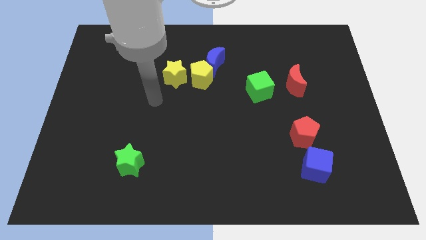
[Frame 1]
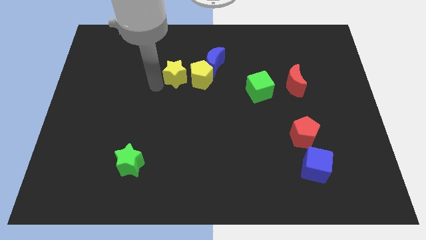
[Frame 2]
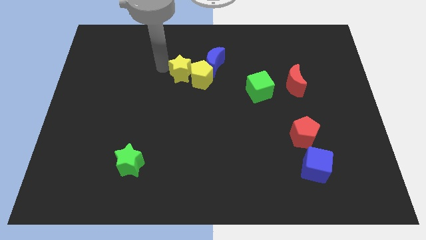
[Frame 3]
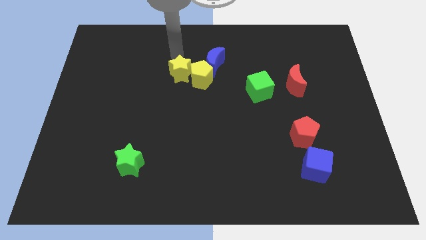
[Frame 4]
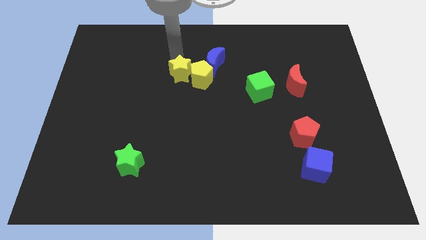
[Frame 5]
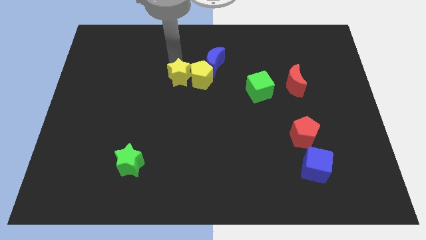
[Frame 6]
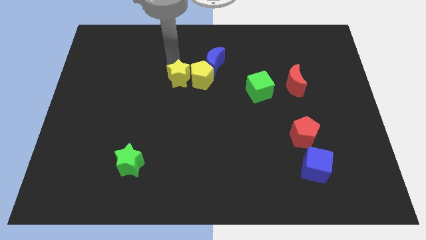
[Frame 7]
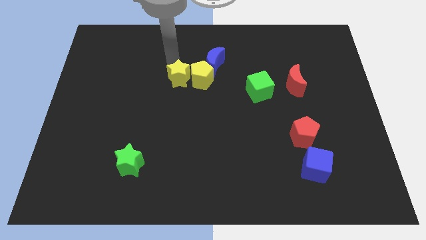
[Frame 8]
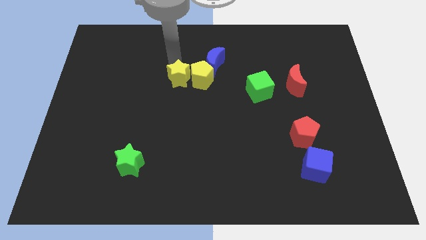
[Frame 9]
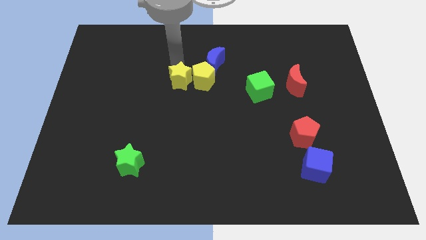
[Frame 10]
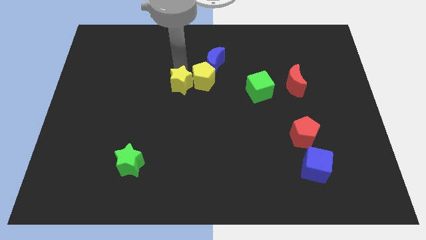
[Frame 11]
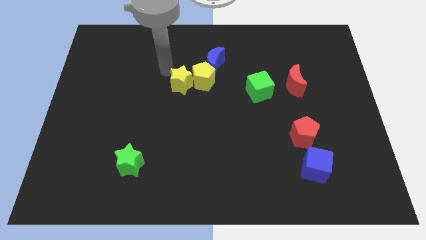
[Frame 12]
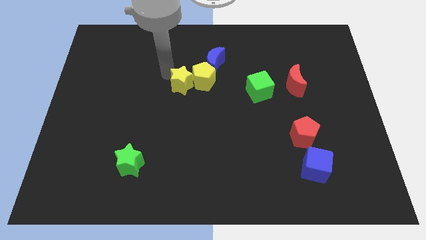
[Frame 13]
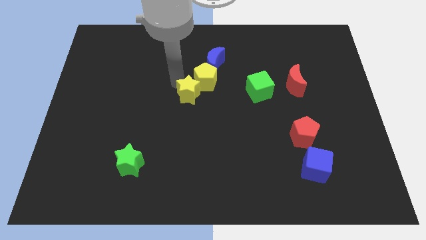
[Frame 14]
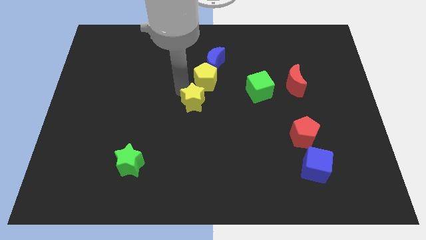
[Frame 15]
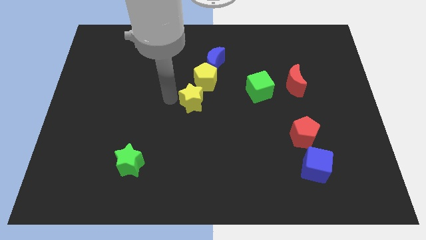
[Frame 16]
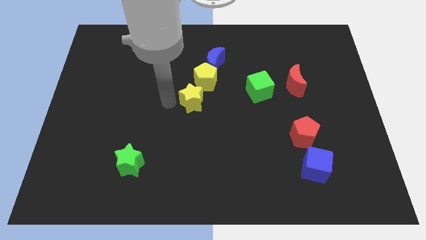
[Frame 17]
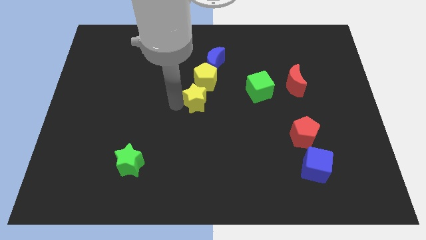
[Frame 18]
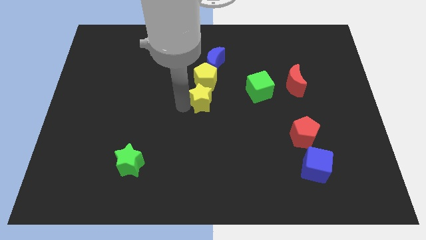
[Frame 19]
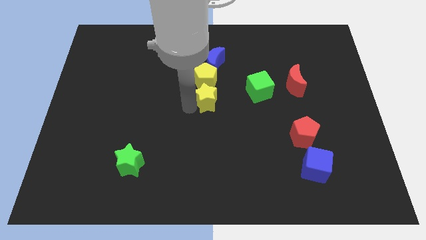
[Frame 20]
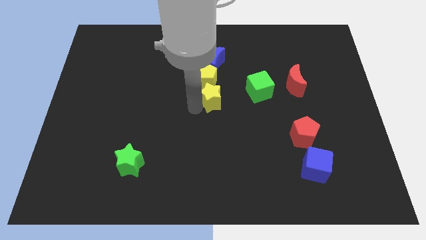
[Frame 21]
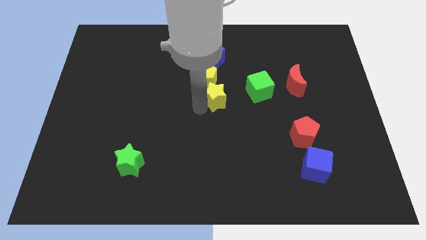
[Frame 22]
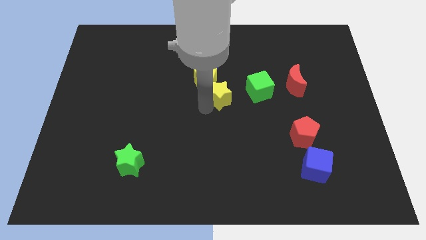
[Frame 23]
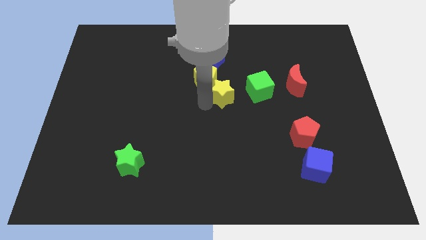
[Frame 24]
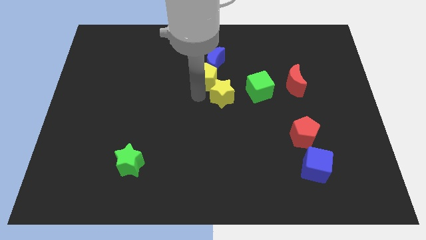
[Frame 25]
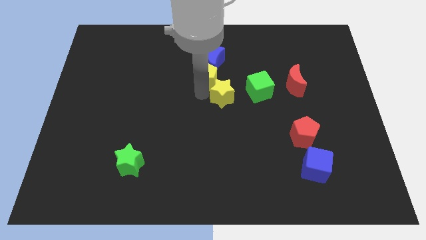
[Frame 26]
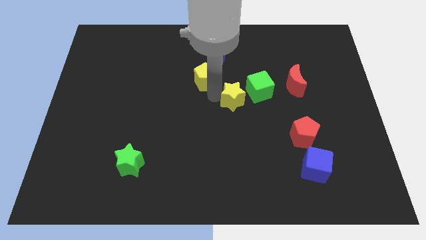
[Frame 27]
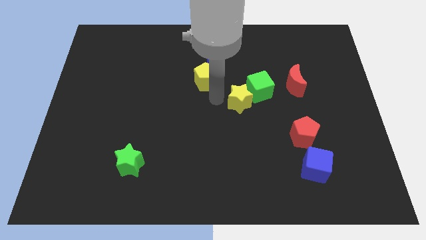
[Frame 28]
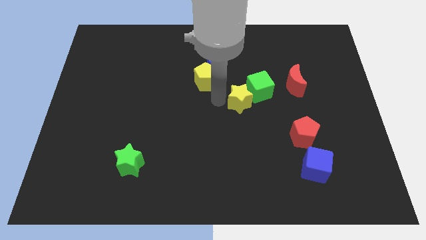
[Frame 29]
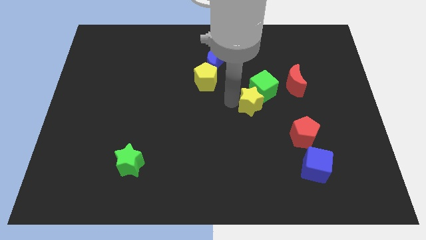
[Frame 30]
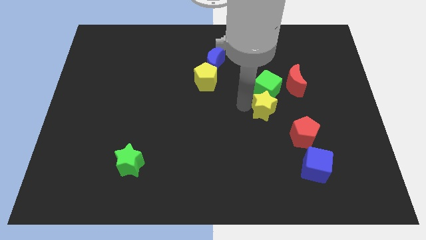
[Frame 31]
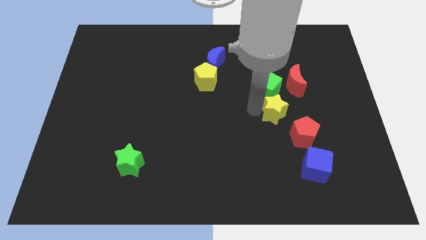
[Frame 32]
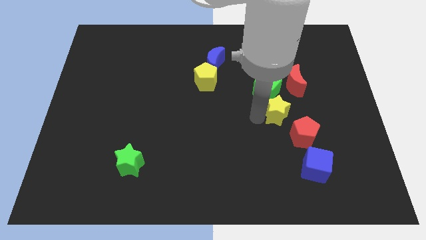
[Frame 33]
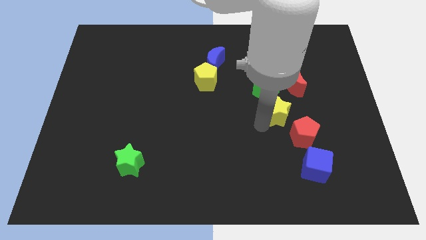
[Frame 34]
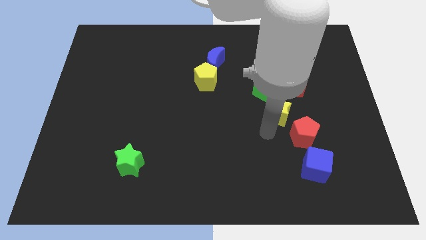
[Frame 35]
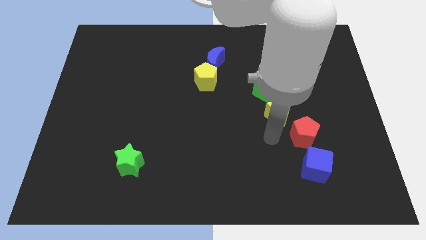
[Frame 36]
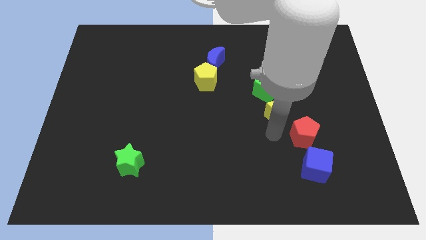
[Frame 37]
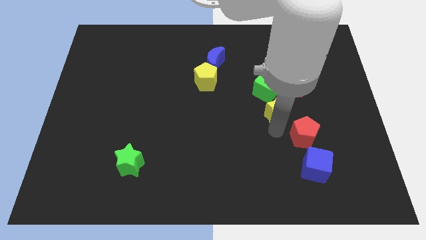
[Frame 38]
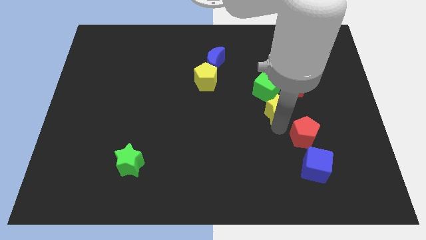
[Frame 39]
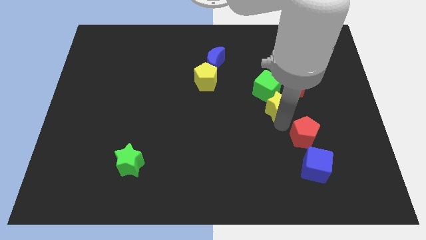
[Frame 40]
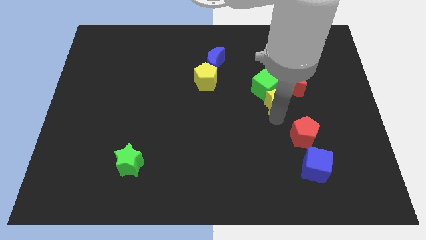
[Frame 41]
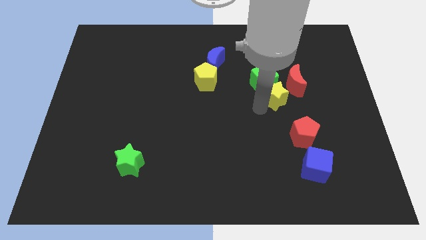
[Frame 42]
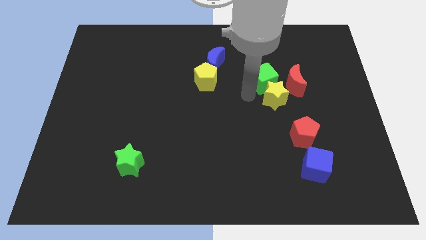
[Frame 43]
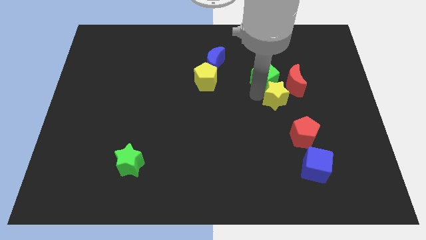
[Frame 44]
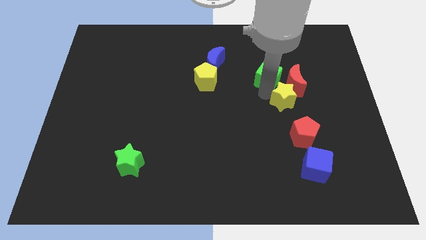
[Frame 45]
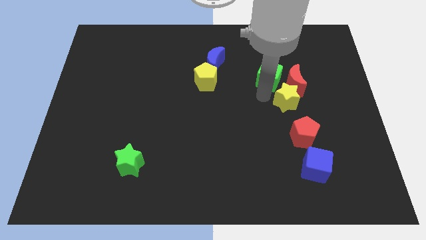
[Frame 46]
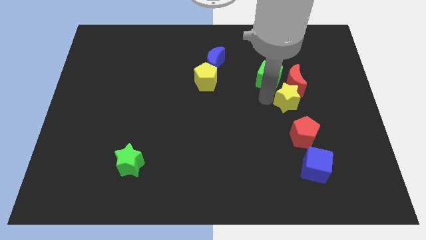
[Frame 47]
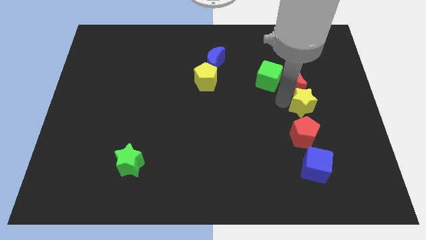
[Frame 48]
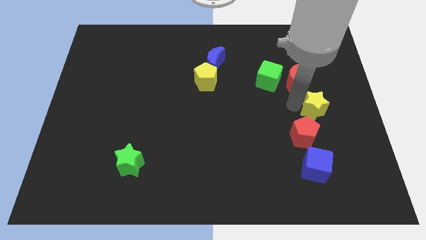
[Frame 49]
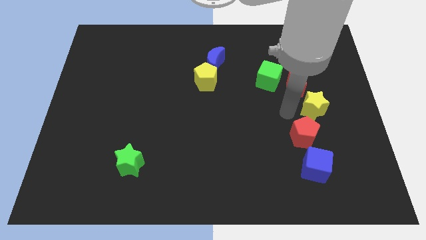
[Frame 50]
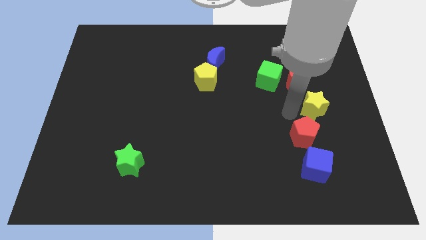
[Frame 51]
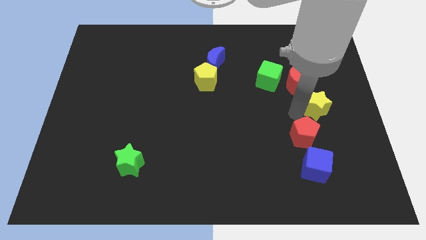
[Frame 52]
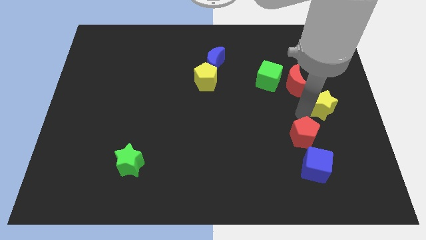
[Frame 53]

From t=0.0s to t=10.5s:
slide the yellow star to the right side

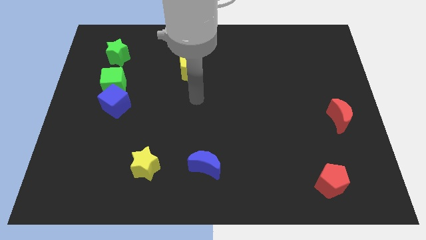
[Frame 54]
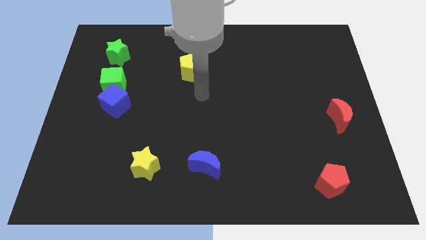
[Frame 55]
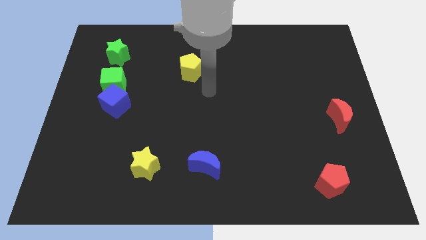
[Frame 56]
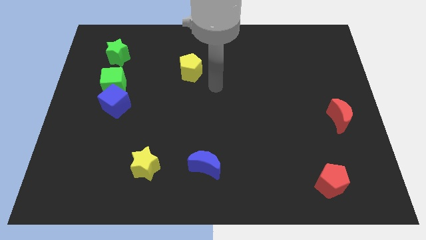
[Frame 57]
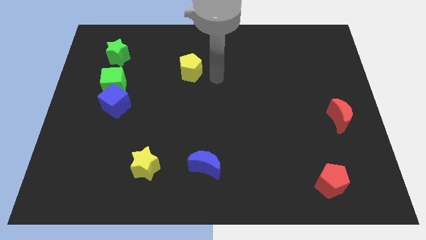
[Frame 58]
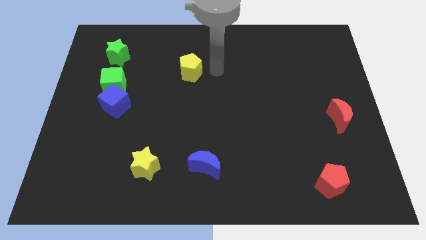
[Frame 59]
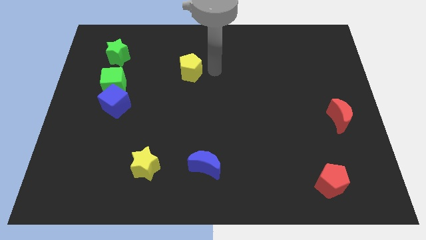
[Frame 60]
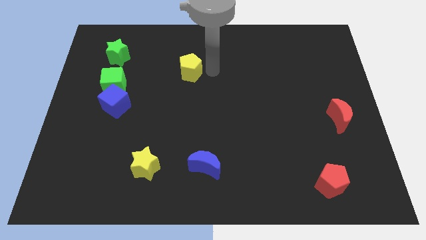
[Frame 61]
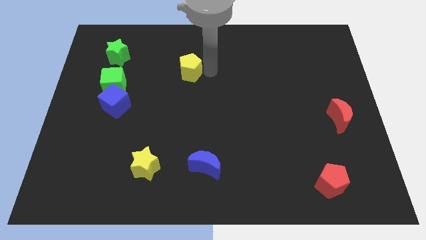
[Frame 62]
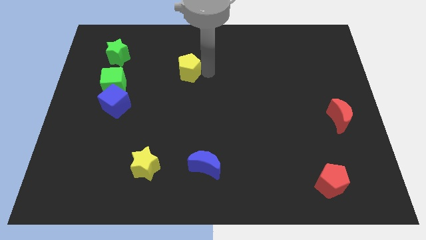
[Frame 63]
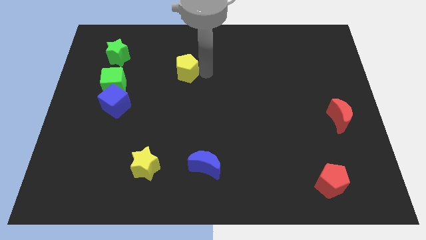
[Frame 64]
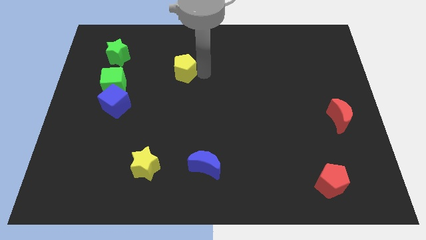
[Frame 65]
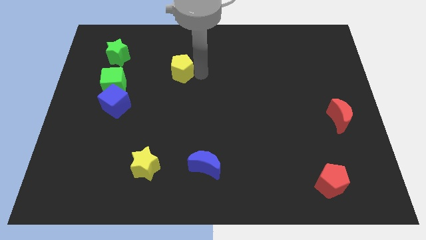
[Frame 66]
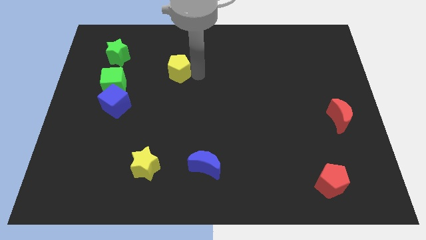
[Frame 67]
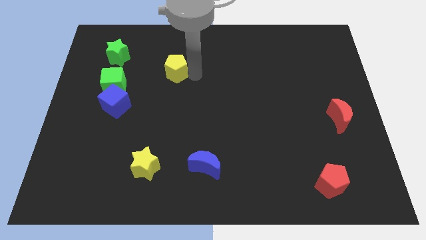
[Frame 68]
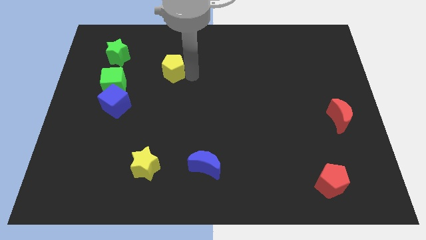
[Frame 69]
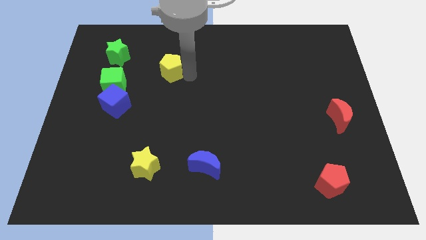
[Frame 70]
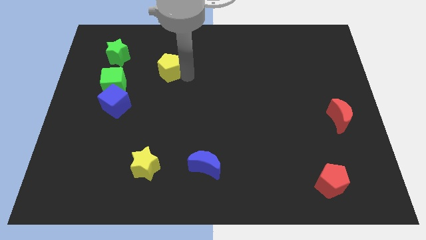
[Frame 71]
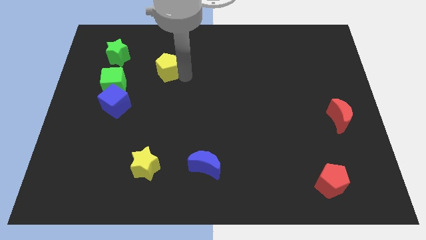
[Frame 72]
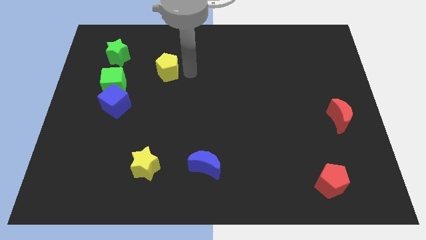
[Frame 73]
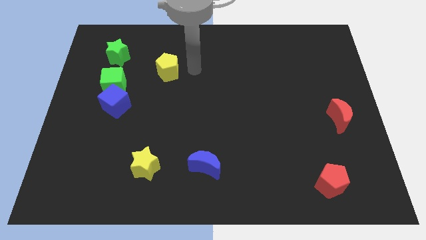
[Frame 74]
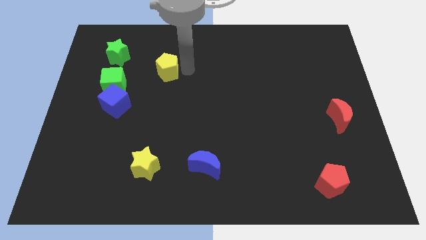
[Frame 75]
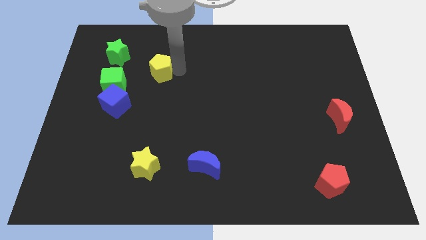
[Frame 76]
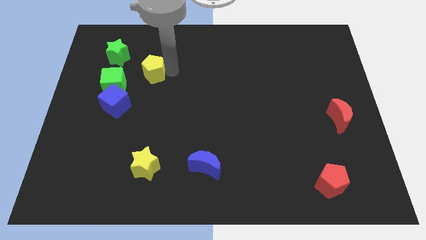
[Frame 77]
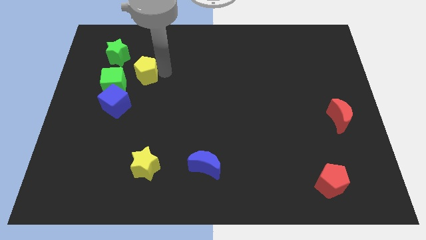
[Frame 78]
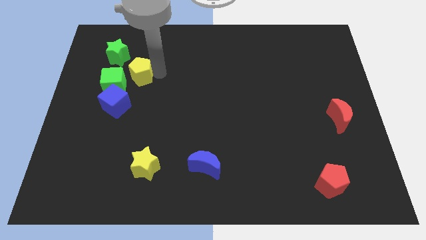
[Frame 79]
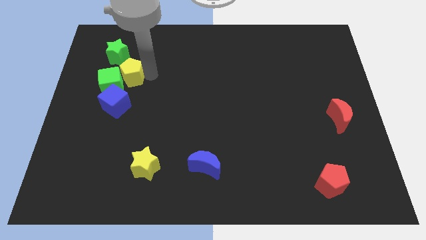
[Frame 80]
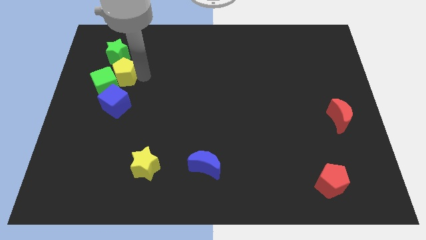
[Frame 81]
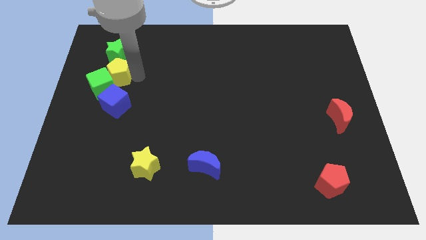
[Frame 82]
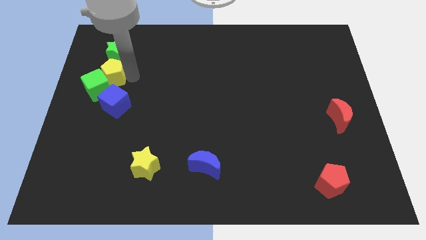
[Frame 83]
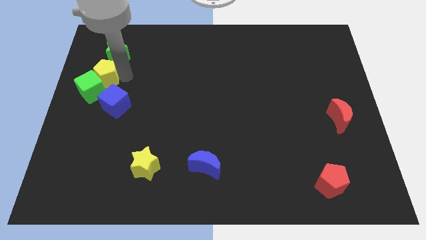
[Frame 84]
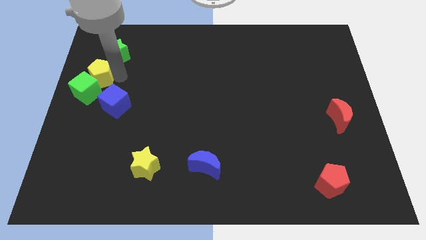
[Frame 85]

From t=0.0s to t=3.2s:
push the yellow pentagon to the left side of the board
